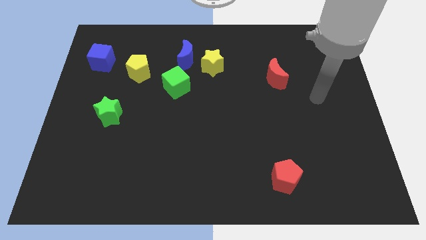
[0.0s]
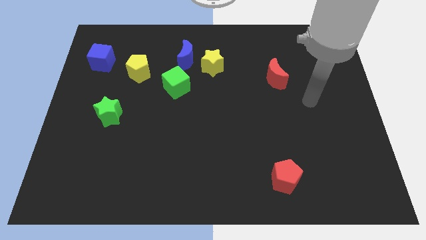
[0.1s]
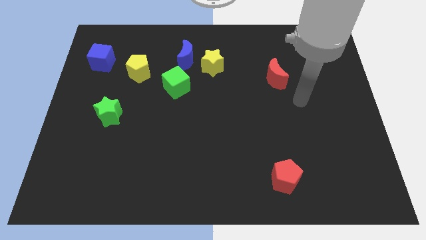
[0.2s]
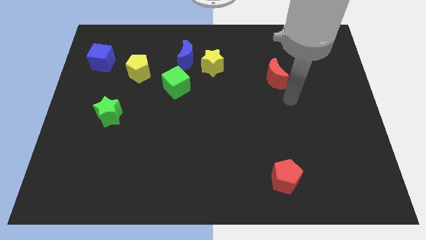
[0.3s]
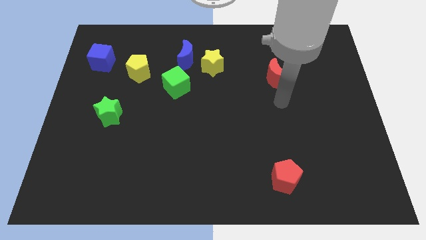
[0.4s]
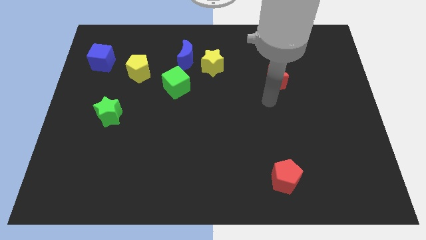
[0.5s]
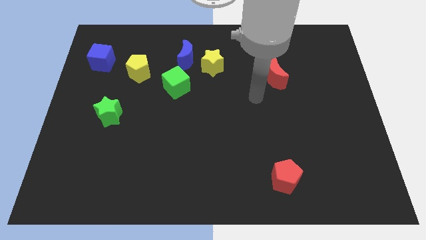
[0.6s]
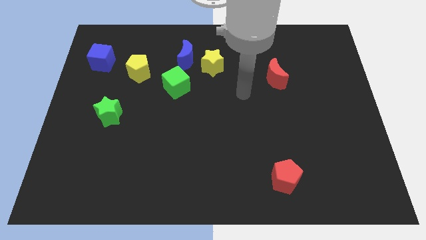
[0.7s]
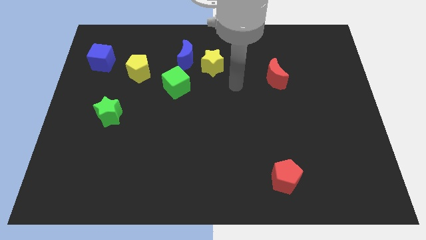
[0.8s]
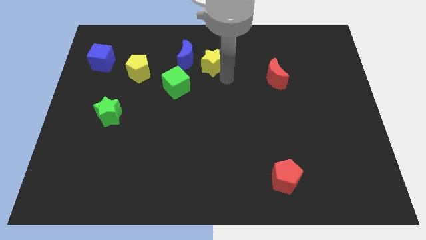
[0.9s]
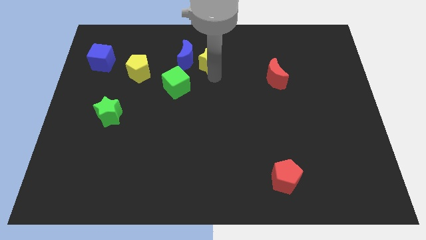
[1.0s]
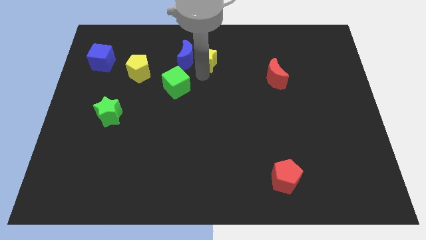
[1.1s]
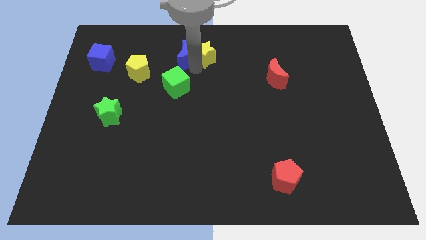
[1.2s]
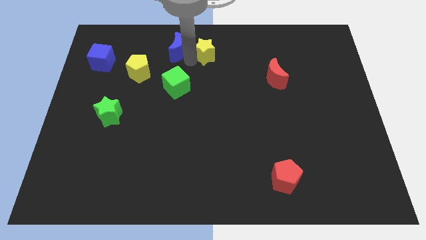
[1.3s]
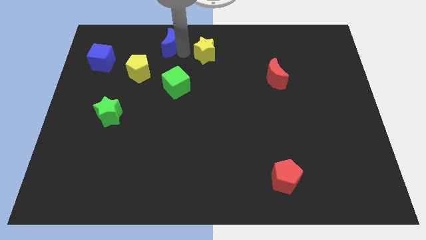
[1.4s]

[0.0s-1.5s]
move the yellow star away from the blue moon

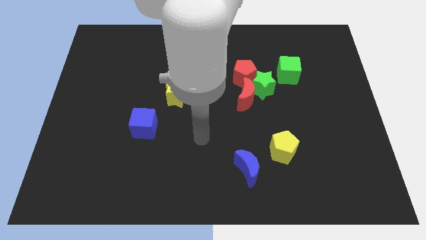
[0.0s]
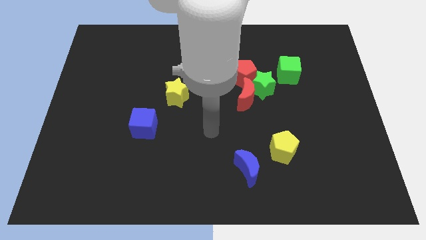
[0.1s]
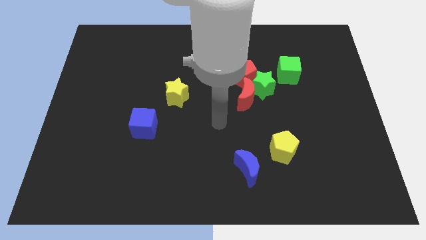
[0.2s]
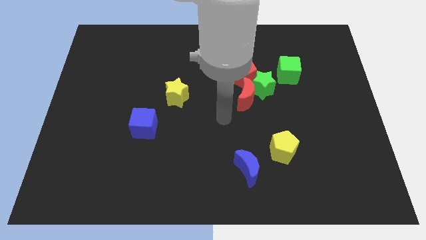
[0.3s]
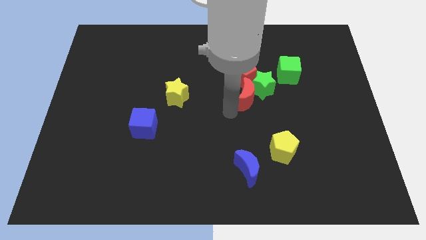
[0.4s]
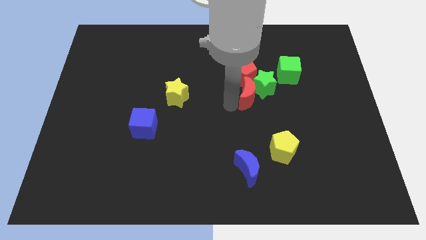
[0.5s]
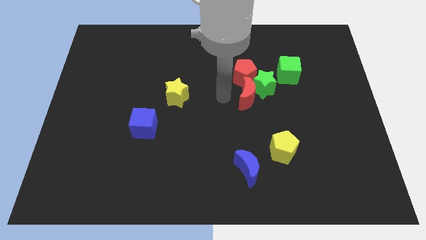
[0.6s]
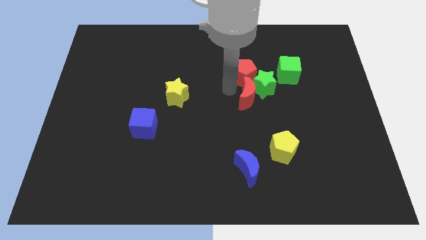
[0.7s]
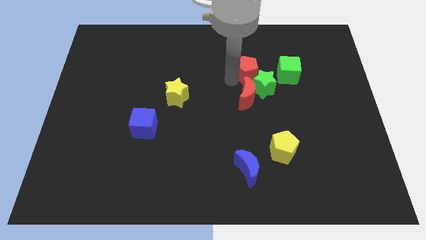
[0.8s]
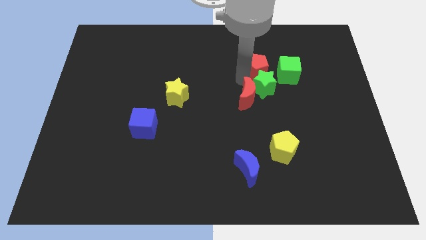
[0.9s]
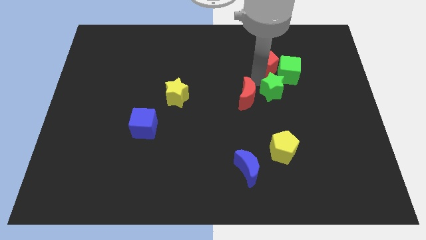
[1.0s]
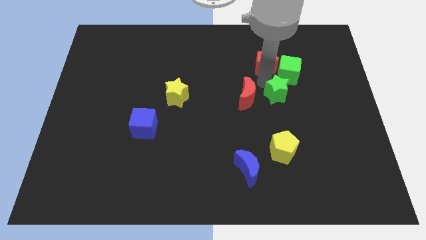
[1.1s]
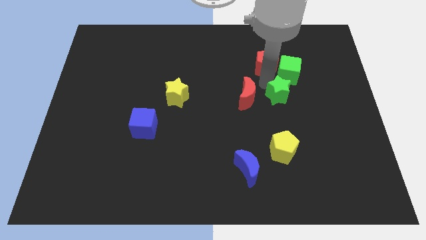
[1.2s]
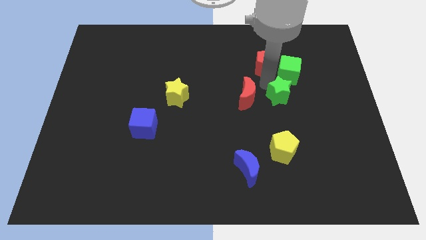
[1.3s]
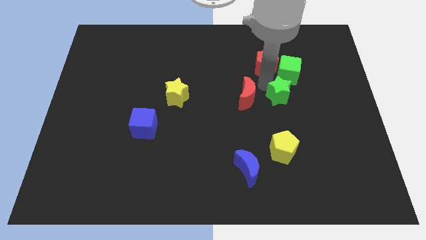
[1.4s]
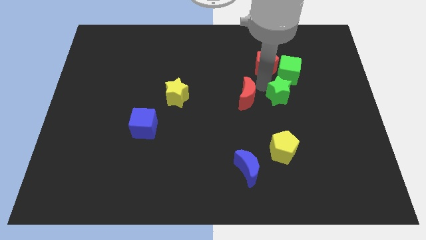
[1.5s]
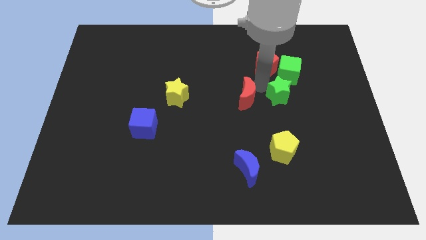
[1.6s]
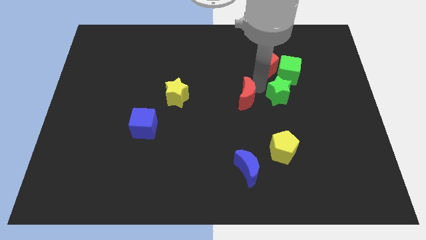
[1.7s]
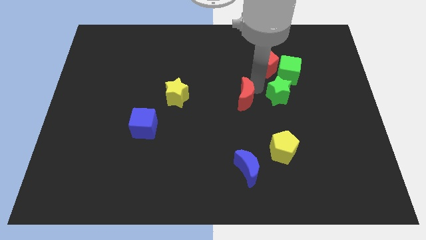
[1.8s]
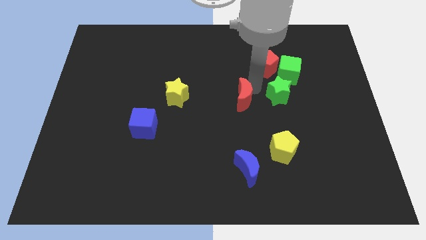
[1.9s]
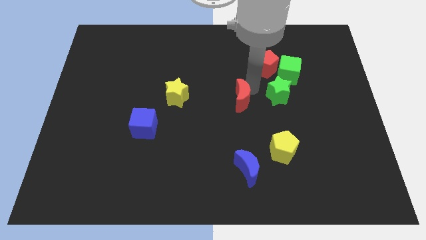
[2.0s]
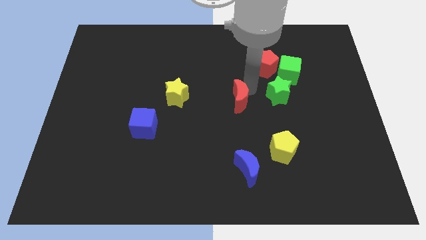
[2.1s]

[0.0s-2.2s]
separate the red moon from the green star and red pentagon

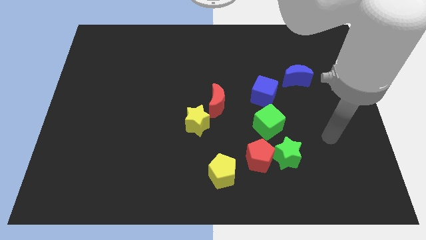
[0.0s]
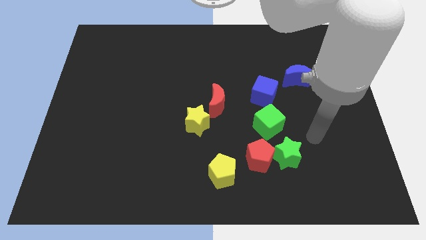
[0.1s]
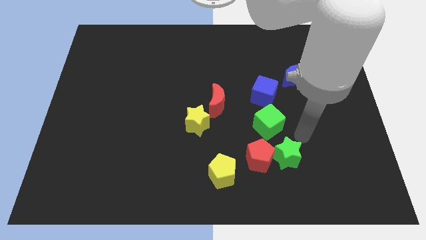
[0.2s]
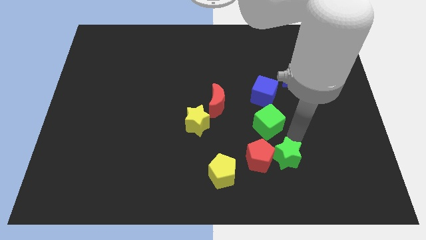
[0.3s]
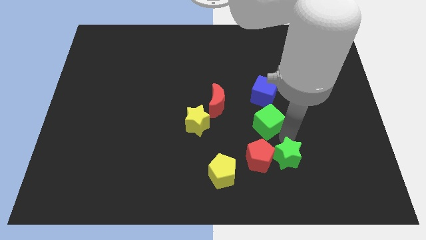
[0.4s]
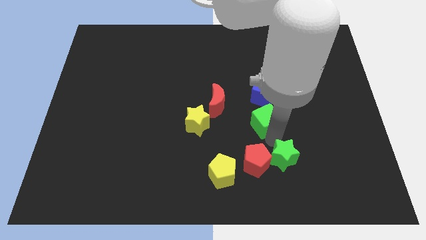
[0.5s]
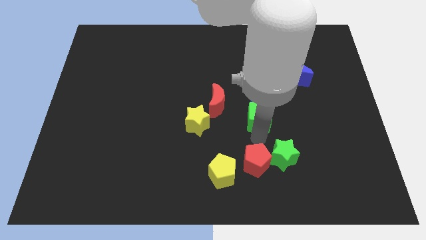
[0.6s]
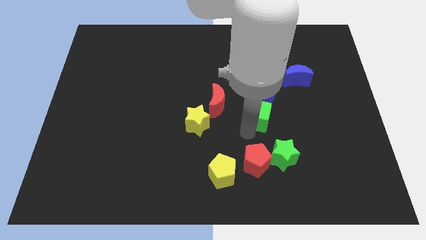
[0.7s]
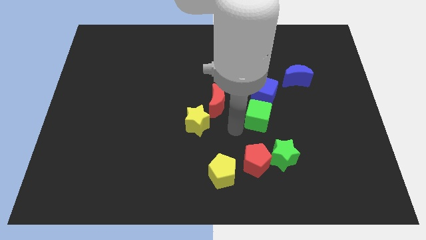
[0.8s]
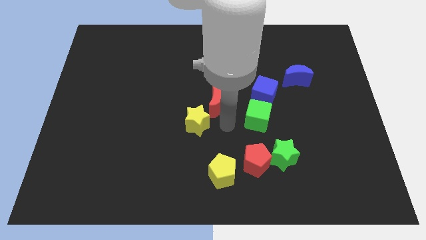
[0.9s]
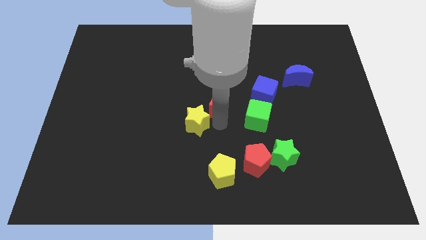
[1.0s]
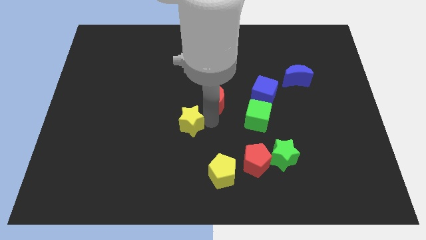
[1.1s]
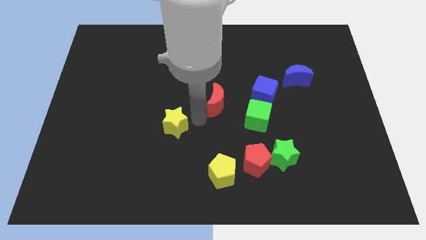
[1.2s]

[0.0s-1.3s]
move the red moon away from the yellow star

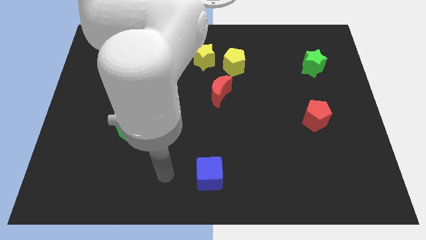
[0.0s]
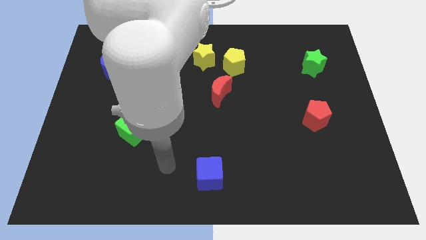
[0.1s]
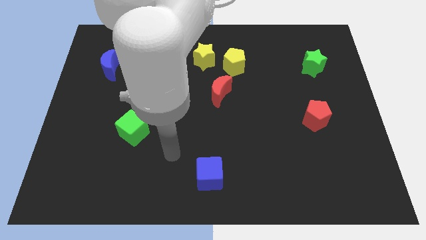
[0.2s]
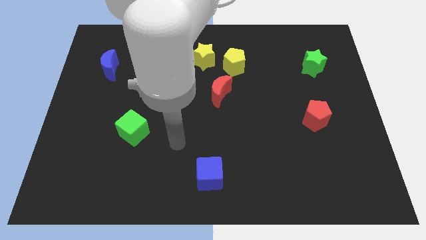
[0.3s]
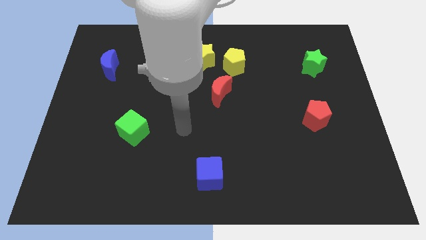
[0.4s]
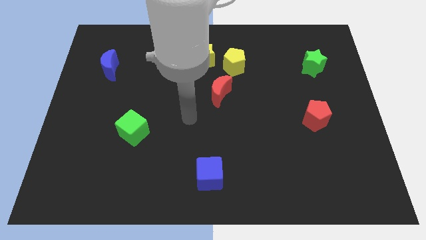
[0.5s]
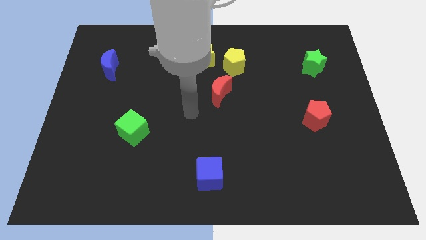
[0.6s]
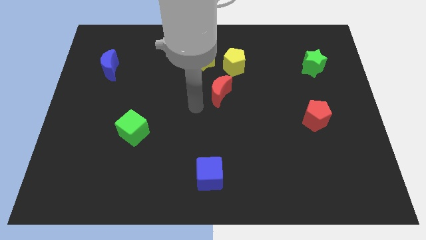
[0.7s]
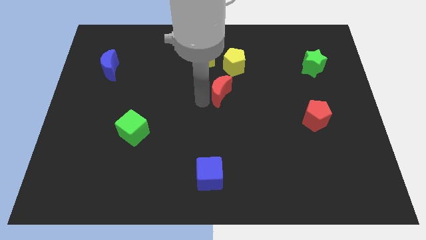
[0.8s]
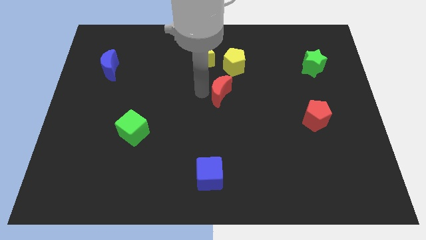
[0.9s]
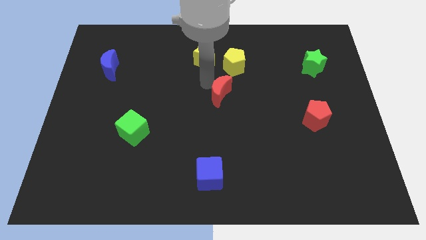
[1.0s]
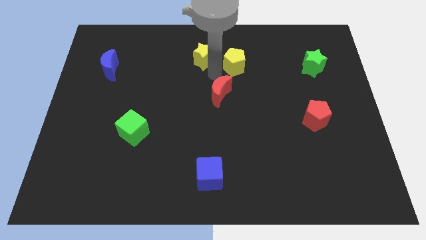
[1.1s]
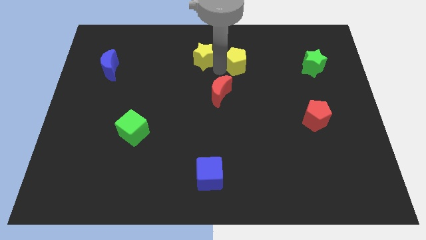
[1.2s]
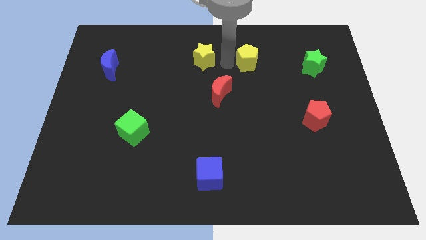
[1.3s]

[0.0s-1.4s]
separate the yellow star from the yellow pentagon

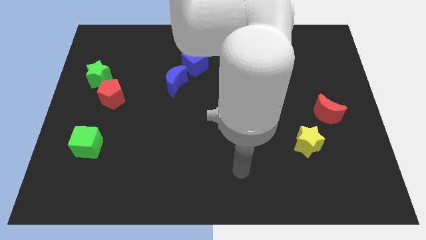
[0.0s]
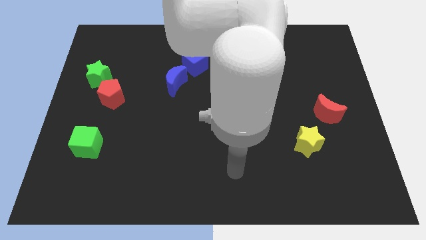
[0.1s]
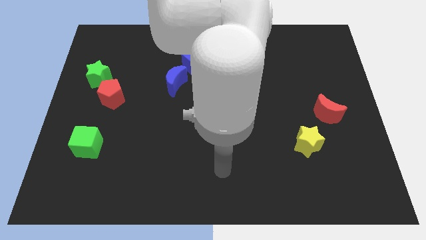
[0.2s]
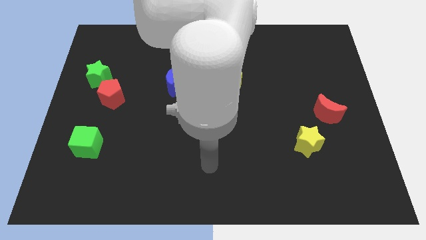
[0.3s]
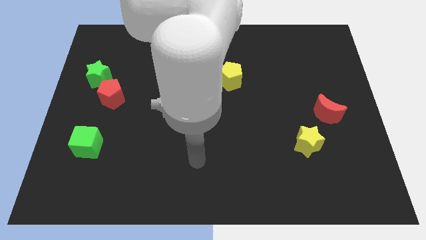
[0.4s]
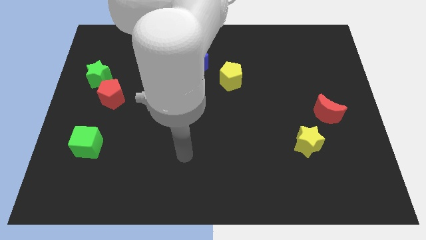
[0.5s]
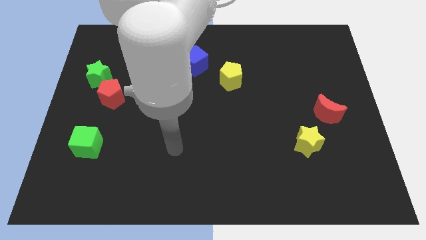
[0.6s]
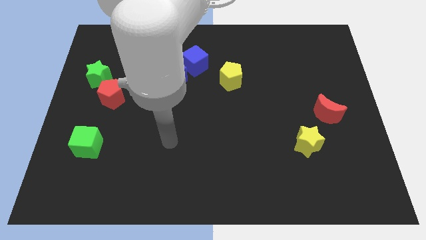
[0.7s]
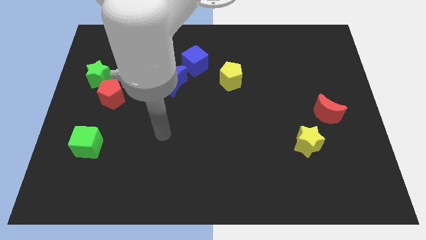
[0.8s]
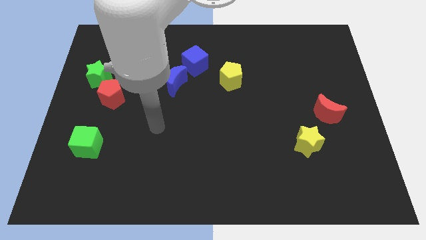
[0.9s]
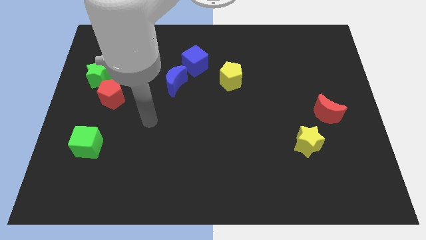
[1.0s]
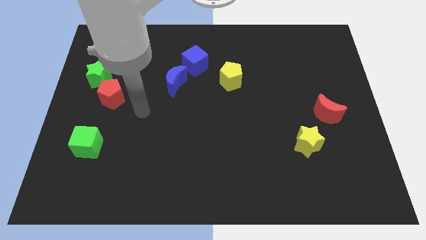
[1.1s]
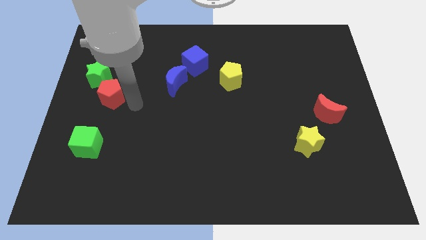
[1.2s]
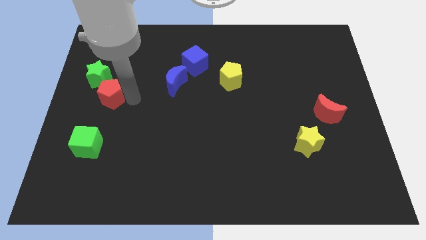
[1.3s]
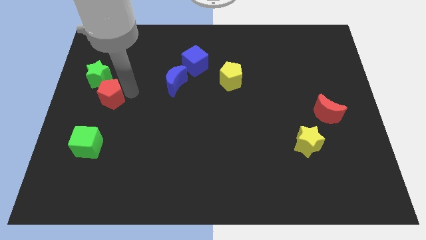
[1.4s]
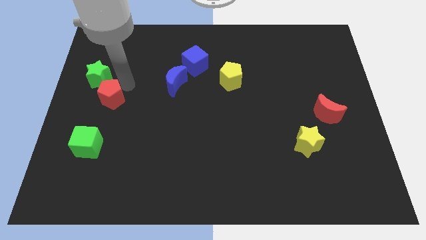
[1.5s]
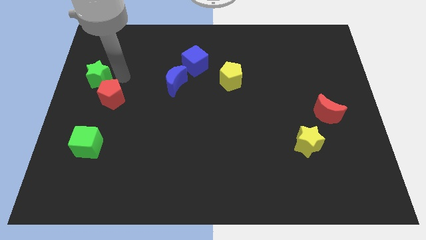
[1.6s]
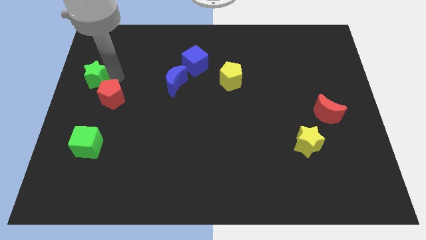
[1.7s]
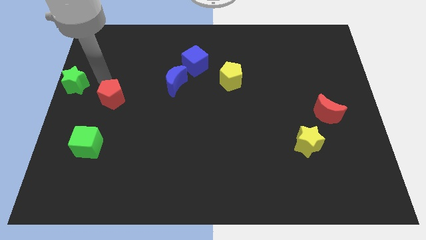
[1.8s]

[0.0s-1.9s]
pull the red pentagon apart from the green star

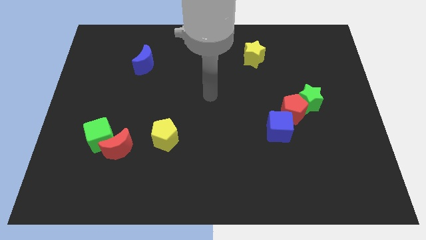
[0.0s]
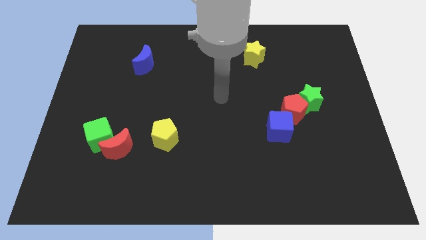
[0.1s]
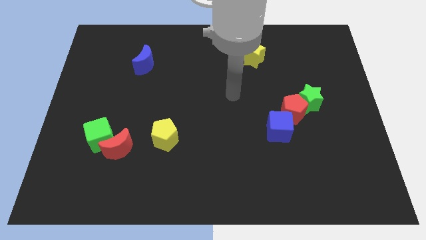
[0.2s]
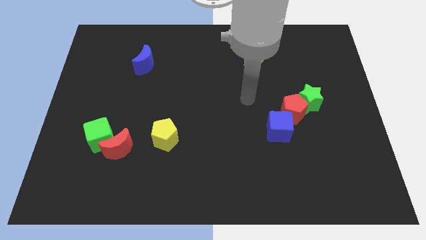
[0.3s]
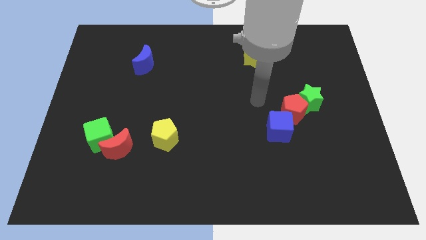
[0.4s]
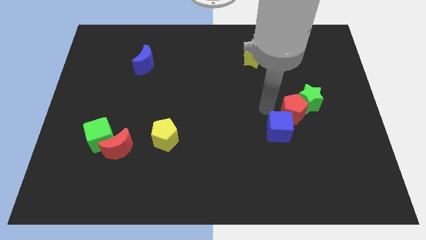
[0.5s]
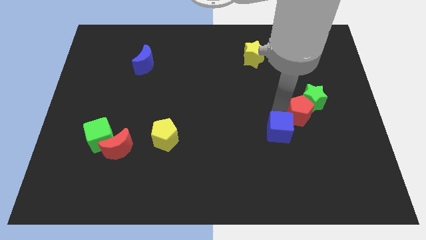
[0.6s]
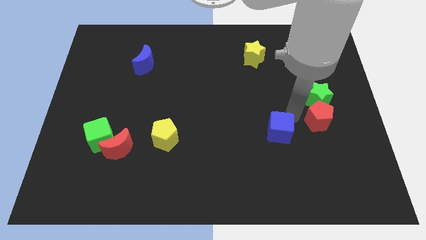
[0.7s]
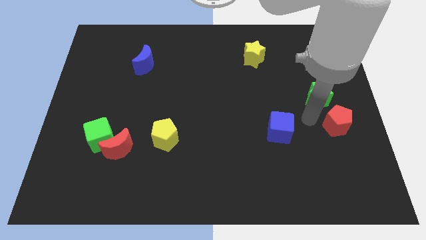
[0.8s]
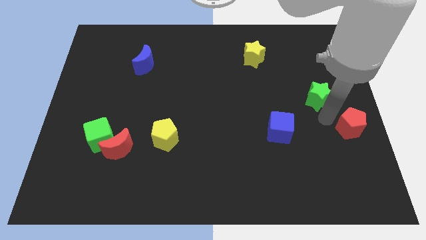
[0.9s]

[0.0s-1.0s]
separate the green star from the red pentagon
